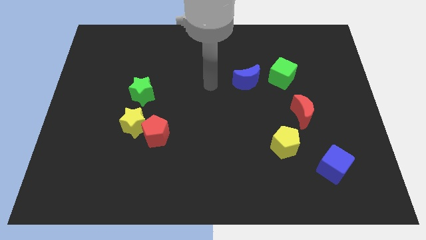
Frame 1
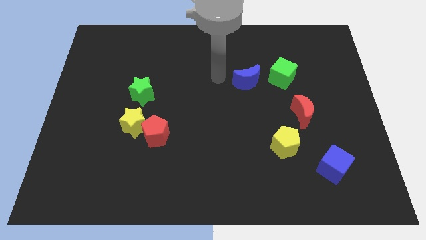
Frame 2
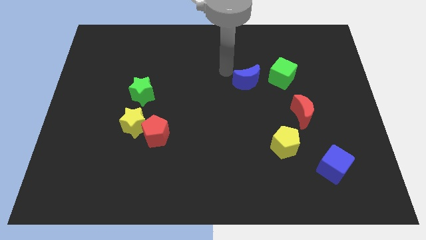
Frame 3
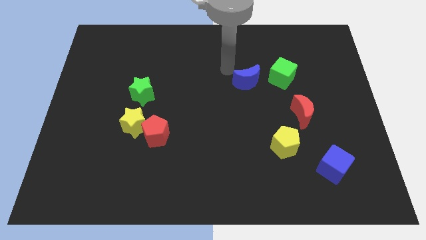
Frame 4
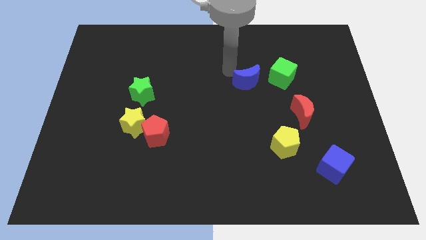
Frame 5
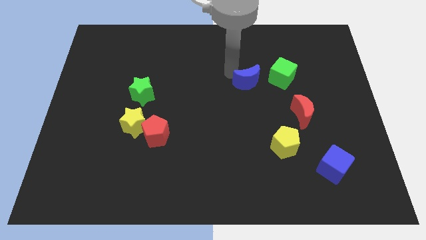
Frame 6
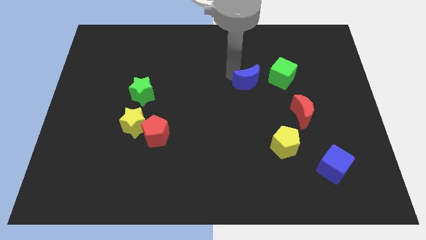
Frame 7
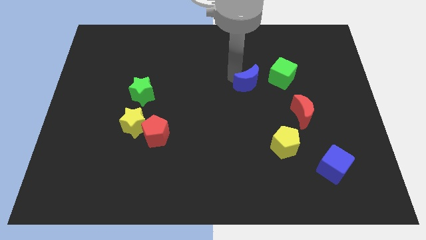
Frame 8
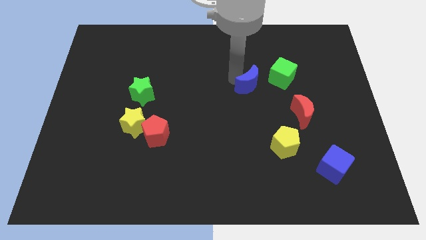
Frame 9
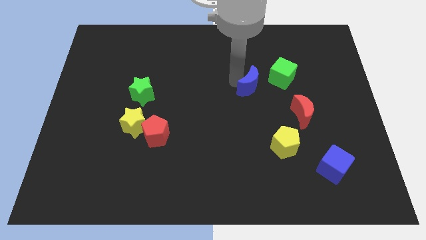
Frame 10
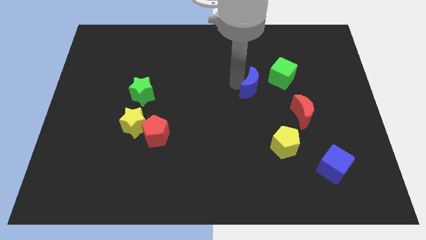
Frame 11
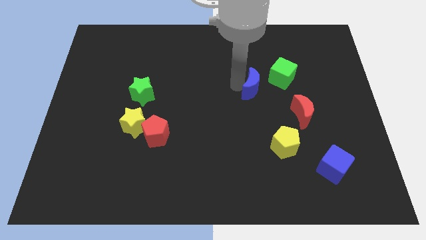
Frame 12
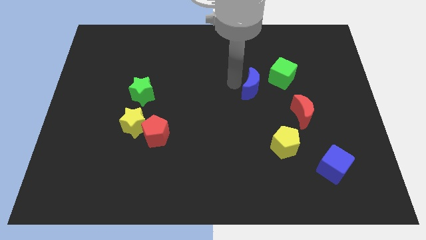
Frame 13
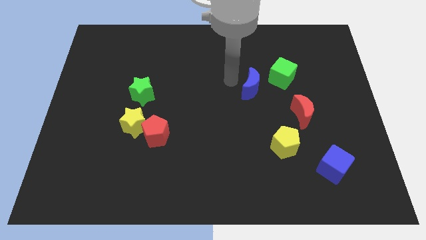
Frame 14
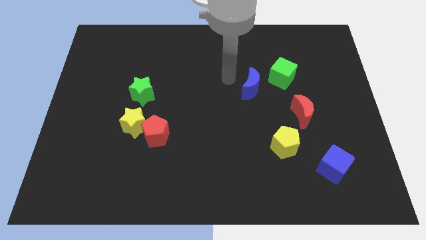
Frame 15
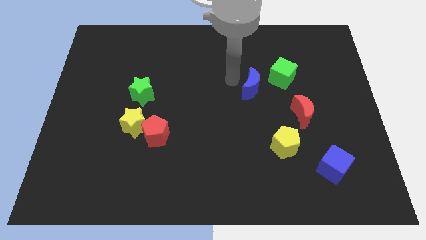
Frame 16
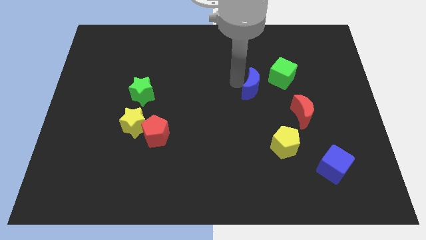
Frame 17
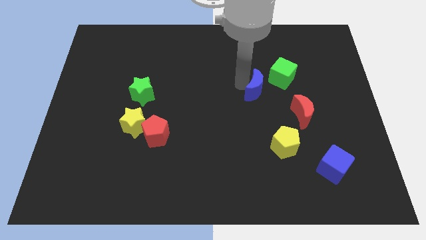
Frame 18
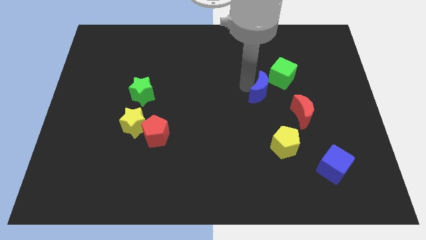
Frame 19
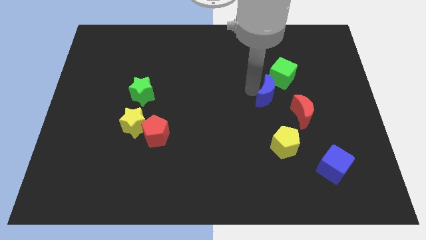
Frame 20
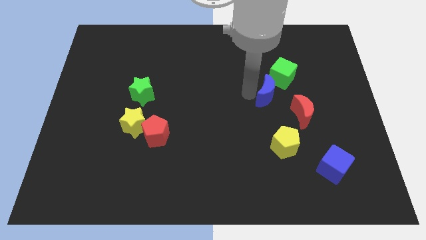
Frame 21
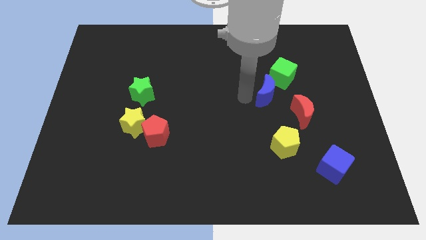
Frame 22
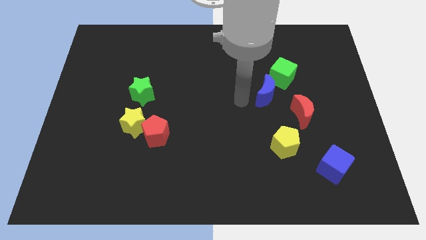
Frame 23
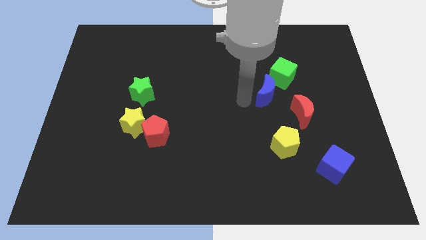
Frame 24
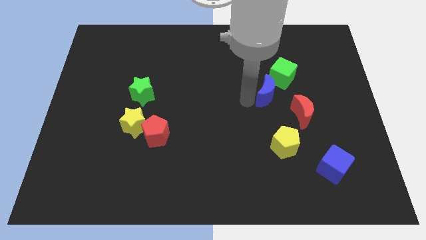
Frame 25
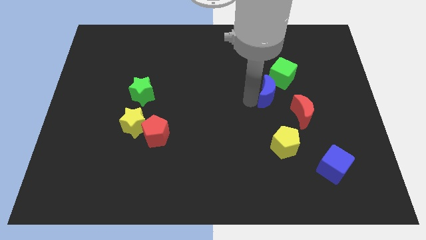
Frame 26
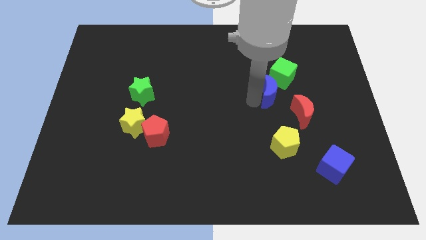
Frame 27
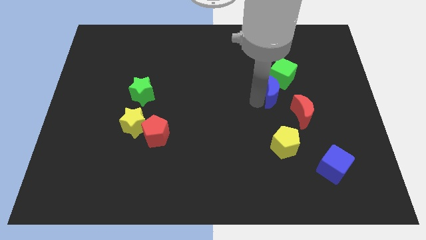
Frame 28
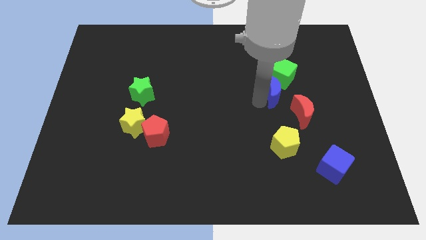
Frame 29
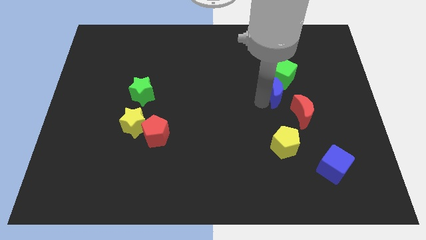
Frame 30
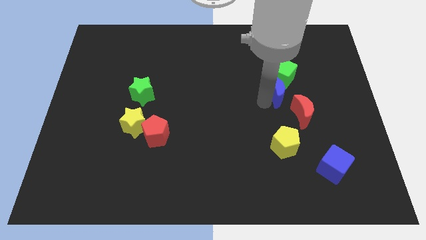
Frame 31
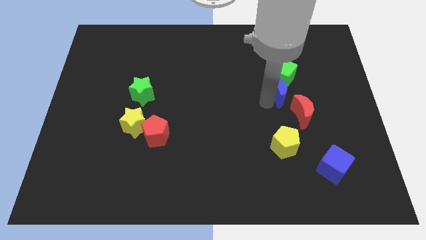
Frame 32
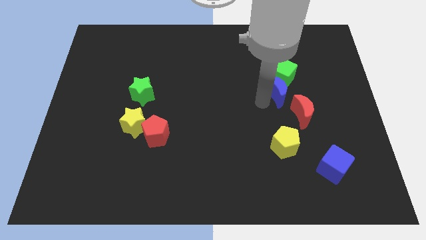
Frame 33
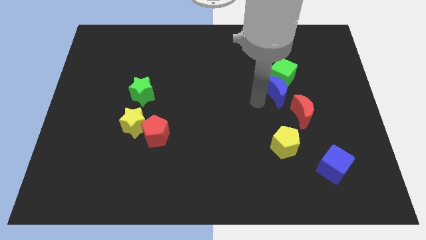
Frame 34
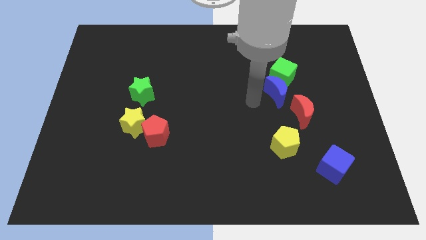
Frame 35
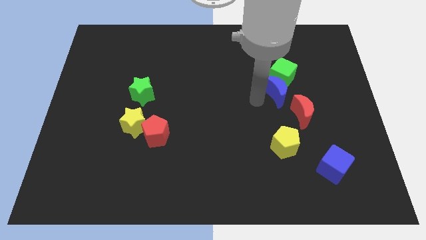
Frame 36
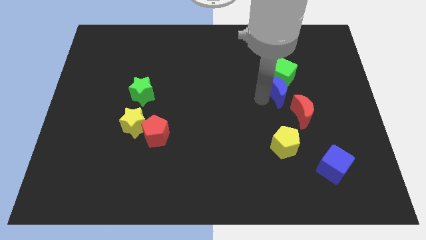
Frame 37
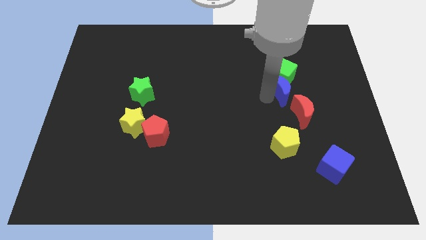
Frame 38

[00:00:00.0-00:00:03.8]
slide the blue moon to the right a little

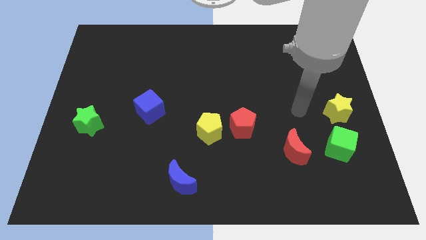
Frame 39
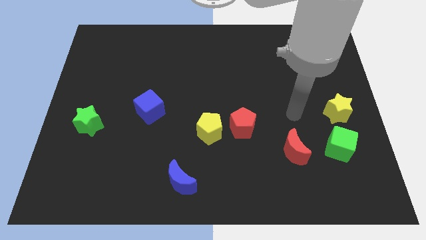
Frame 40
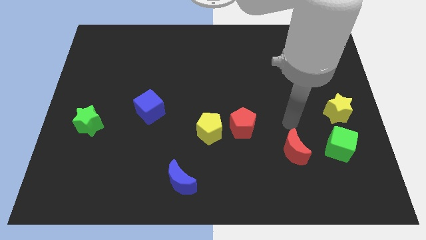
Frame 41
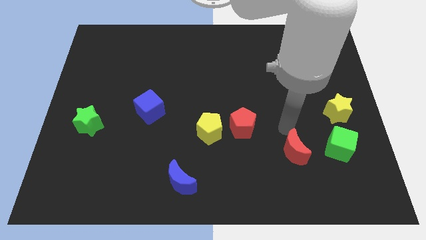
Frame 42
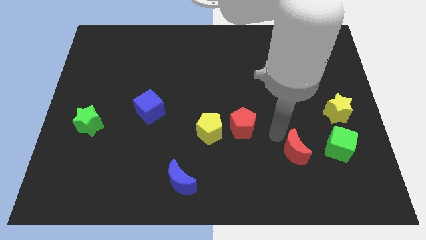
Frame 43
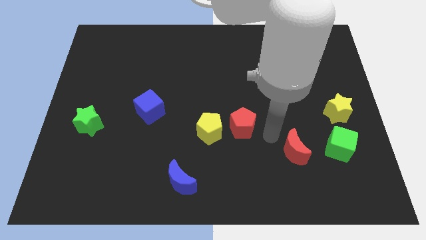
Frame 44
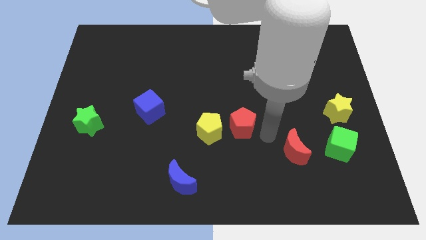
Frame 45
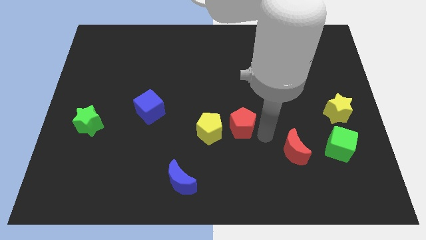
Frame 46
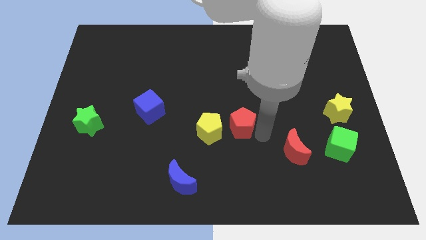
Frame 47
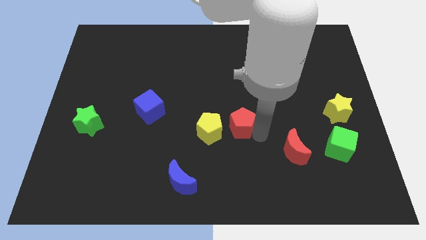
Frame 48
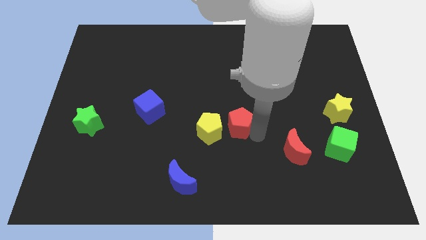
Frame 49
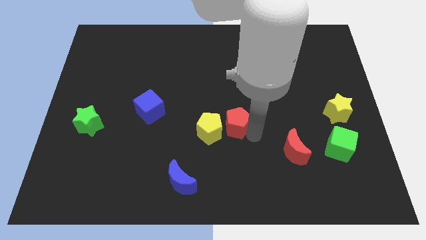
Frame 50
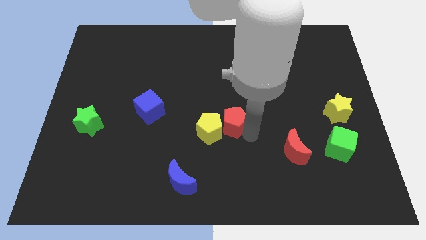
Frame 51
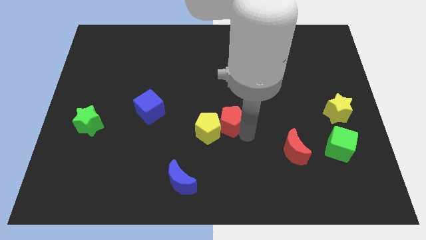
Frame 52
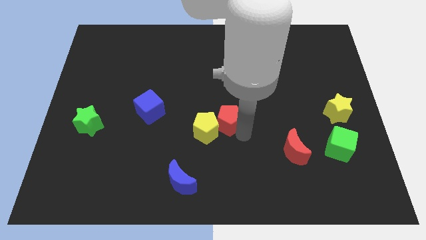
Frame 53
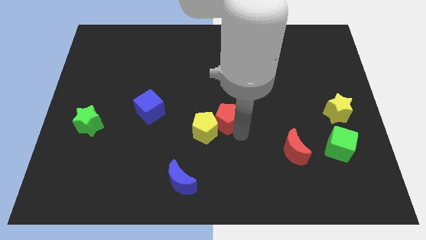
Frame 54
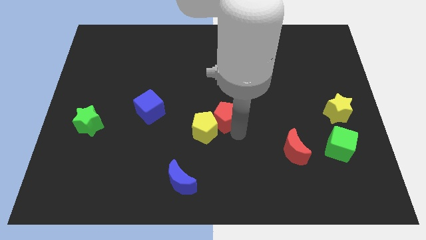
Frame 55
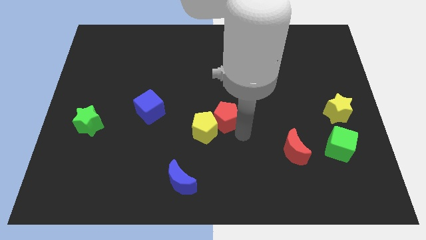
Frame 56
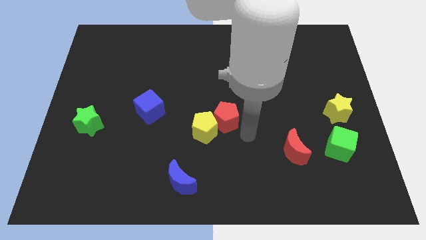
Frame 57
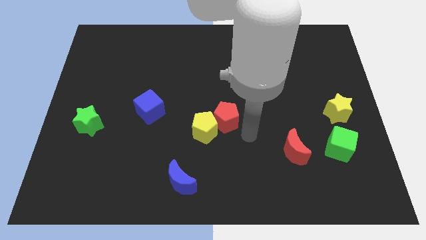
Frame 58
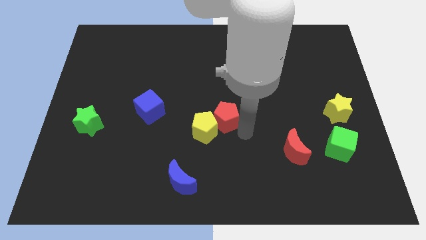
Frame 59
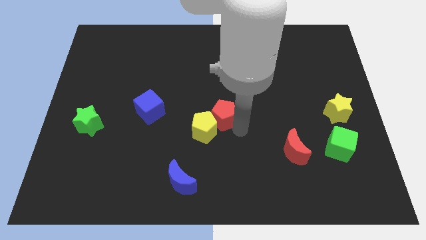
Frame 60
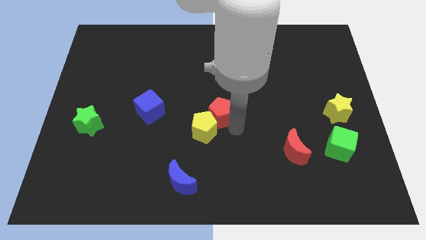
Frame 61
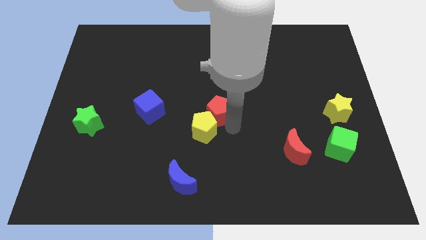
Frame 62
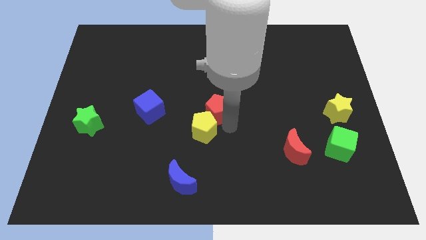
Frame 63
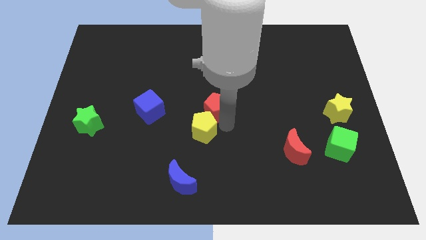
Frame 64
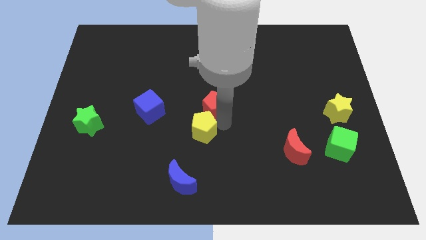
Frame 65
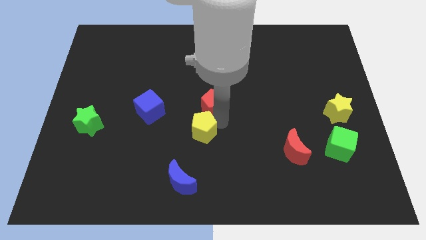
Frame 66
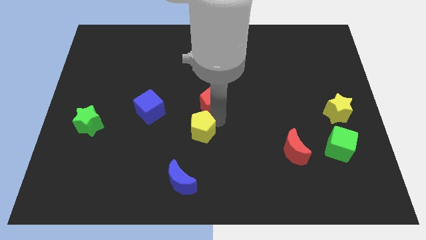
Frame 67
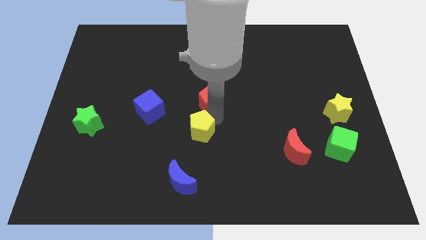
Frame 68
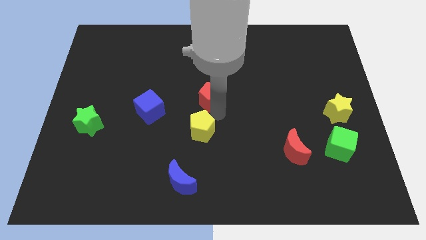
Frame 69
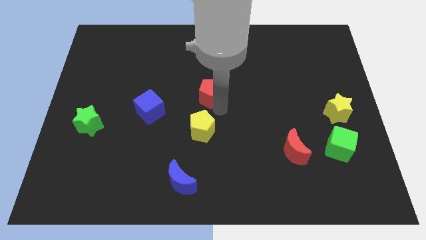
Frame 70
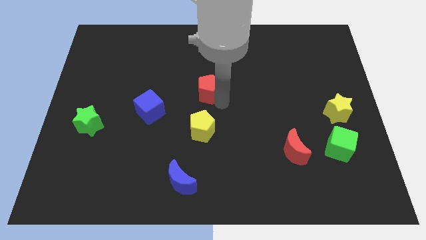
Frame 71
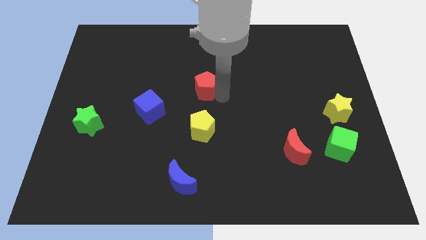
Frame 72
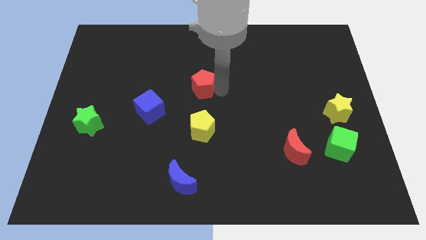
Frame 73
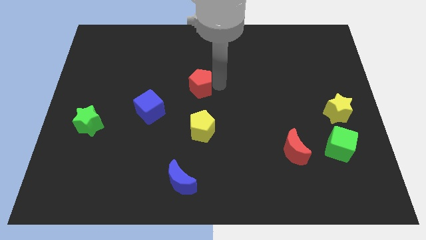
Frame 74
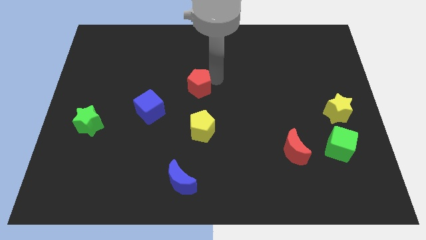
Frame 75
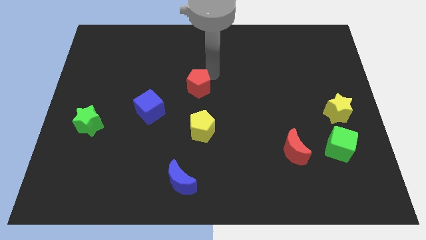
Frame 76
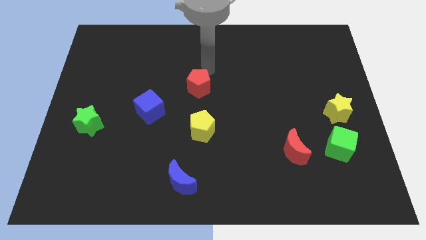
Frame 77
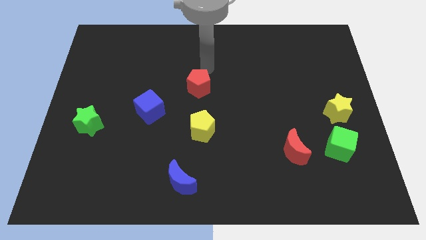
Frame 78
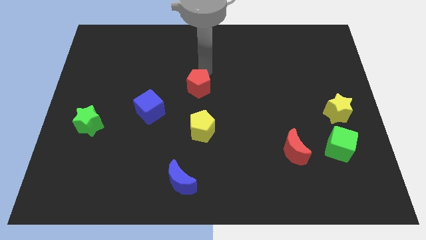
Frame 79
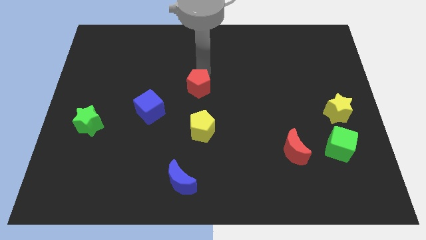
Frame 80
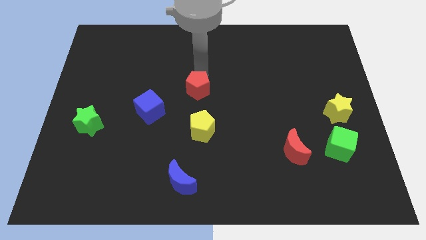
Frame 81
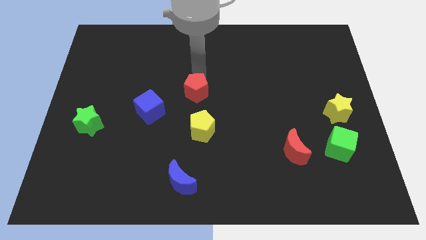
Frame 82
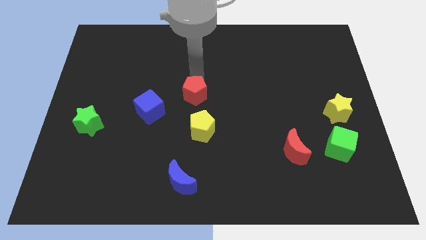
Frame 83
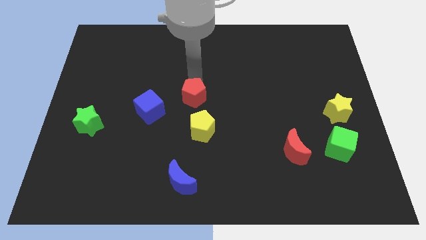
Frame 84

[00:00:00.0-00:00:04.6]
slightly slide the red pentagon left

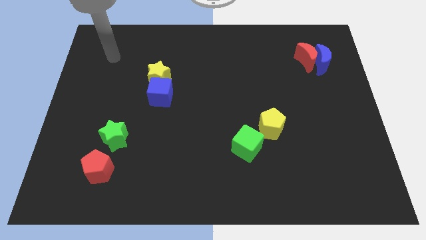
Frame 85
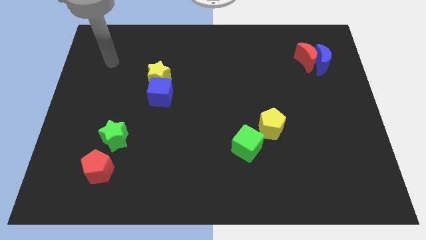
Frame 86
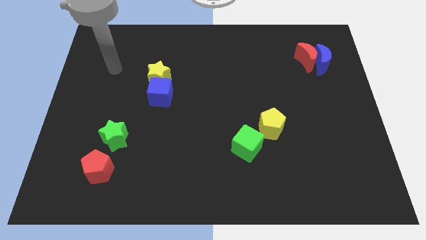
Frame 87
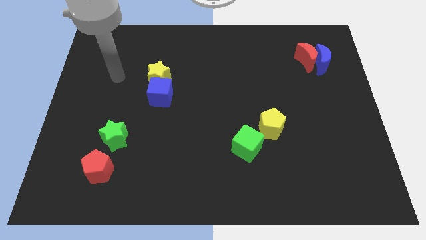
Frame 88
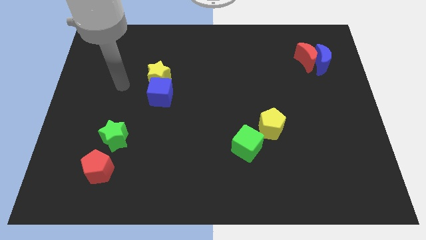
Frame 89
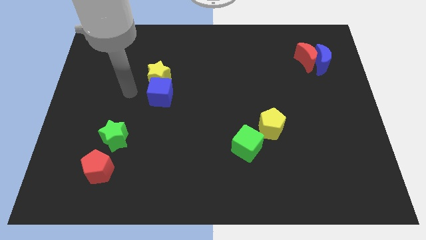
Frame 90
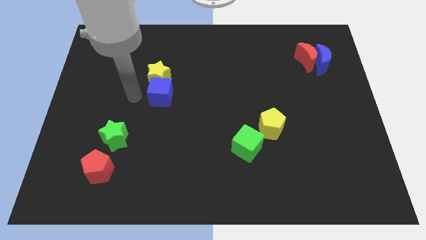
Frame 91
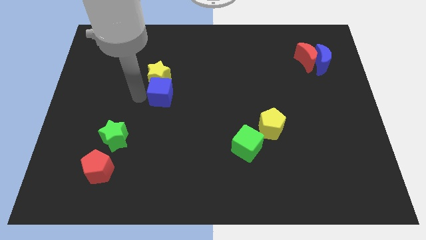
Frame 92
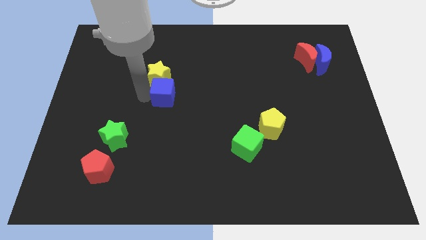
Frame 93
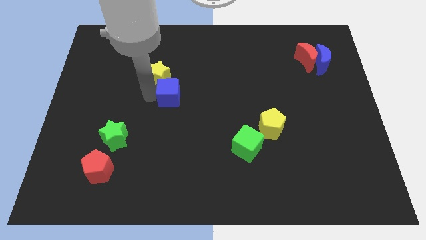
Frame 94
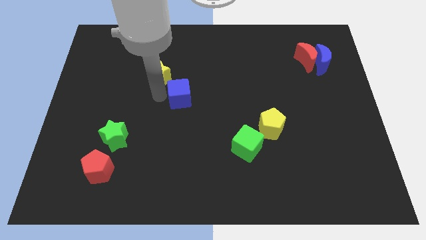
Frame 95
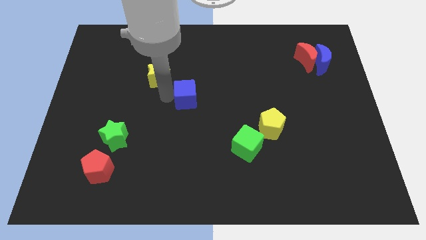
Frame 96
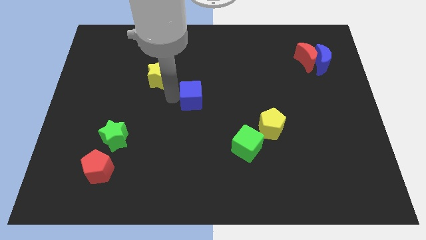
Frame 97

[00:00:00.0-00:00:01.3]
move the blue cube a little bit right
